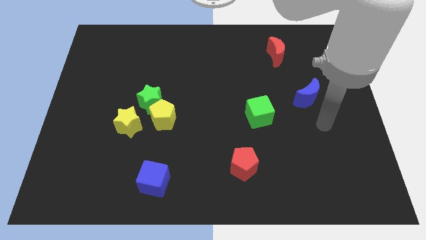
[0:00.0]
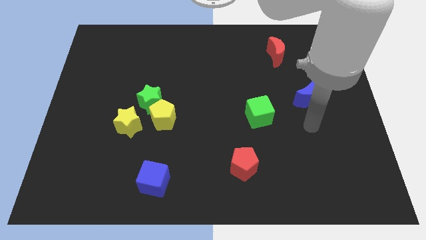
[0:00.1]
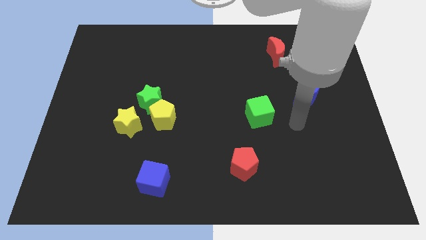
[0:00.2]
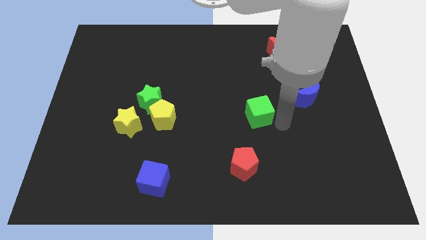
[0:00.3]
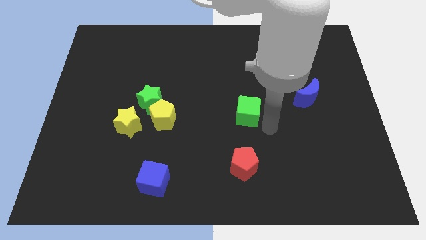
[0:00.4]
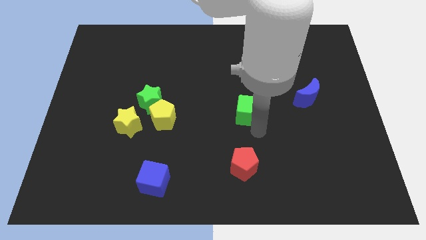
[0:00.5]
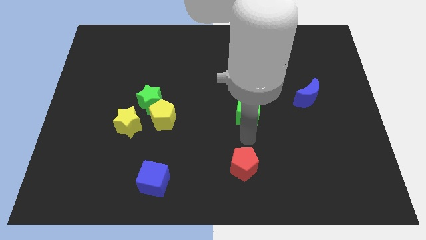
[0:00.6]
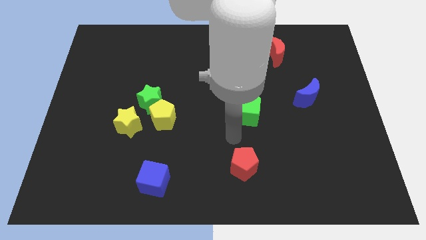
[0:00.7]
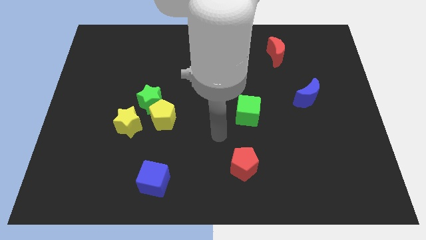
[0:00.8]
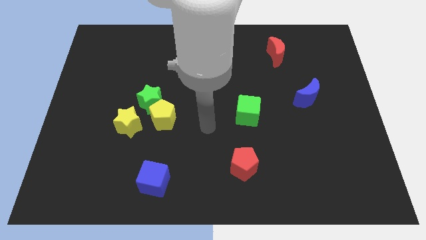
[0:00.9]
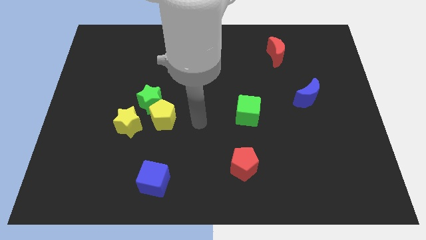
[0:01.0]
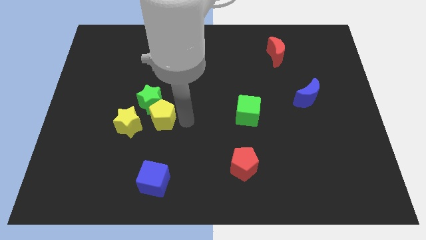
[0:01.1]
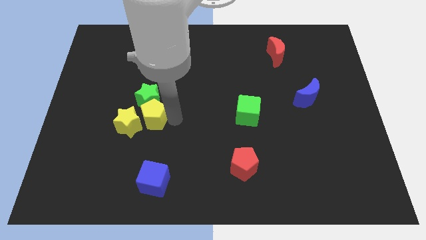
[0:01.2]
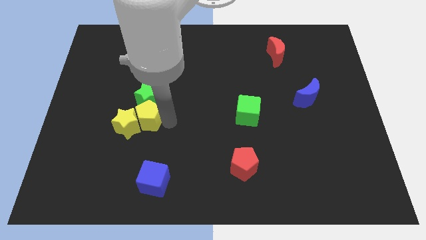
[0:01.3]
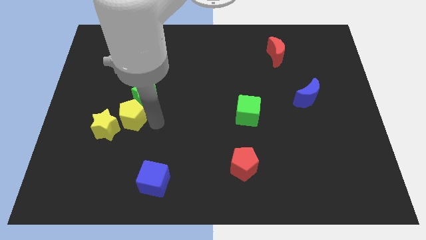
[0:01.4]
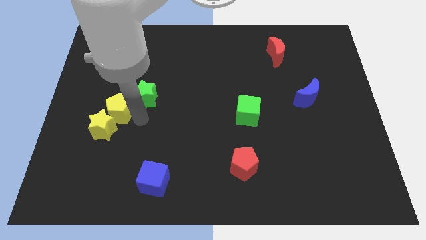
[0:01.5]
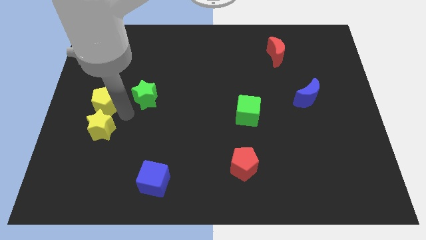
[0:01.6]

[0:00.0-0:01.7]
separate the green star from the yellow pentagon and yellow star

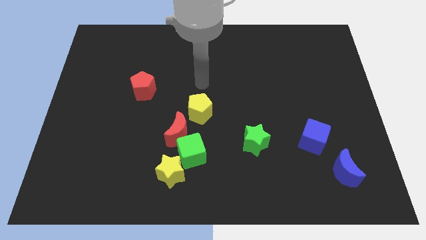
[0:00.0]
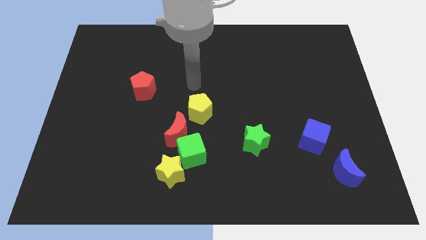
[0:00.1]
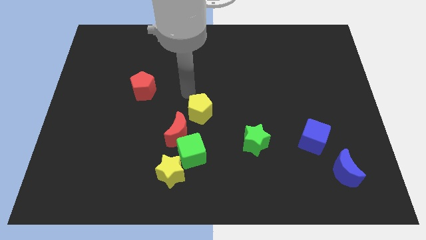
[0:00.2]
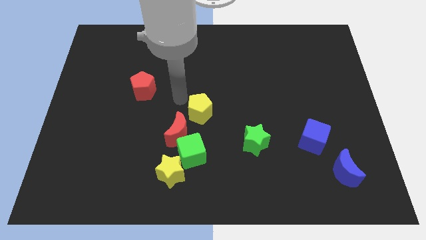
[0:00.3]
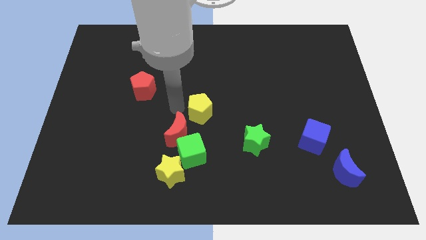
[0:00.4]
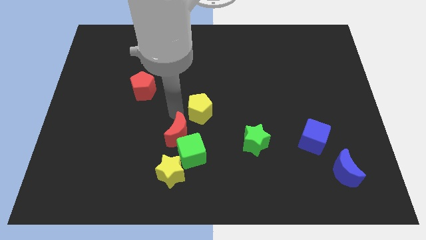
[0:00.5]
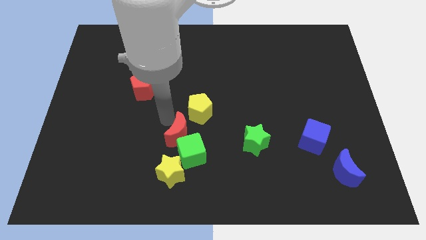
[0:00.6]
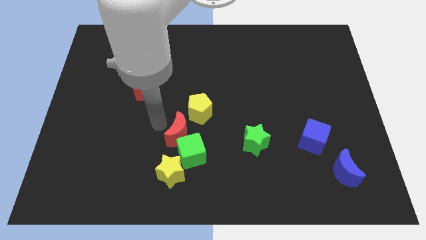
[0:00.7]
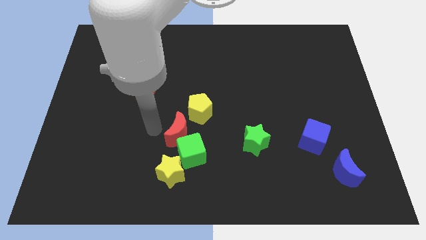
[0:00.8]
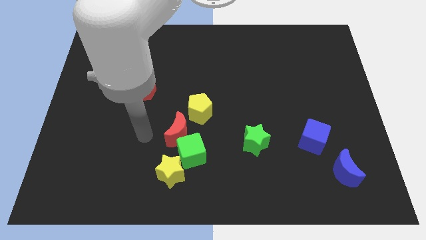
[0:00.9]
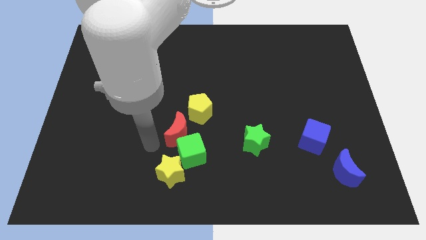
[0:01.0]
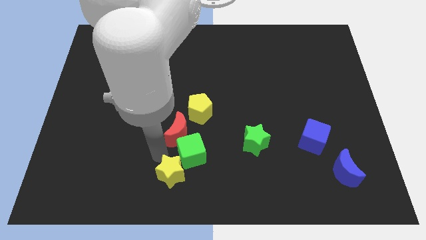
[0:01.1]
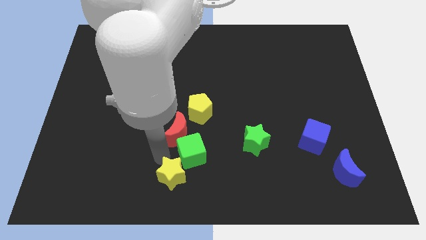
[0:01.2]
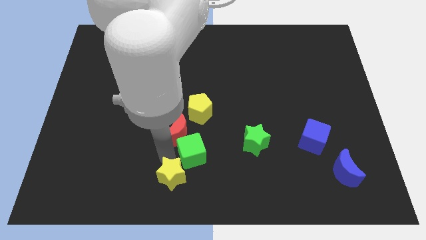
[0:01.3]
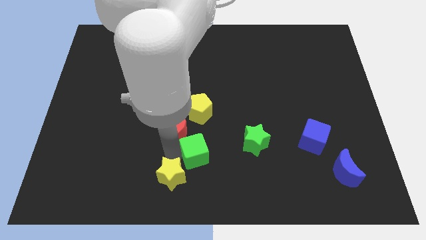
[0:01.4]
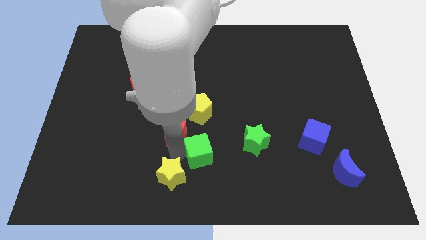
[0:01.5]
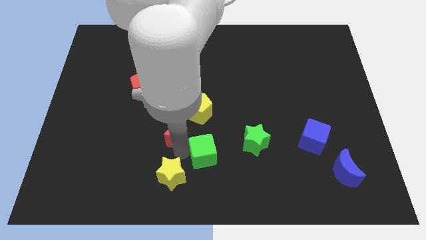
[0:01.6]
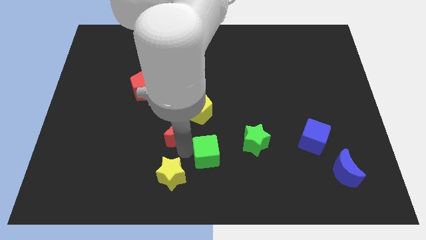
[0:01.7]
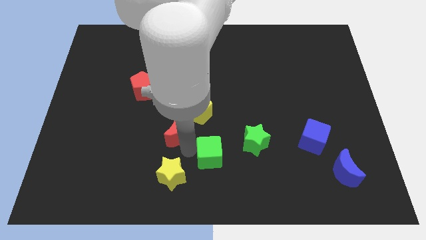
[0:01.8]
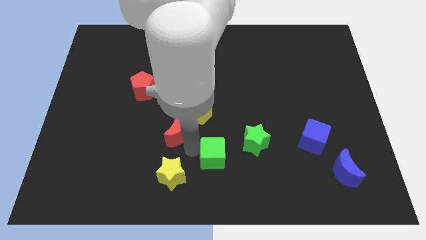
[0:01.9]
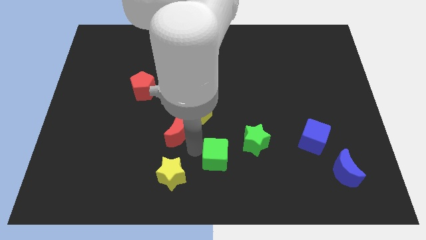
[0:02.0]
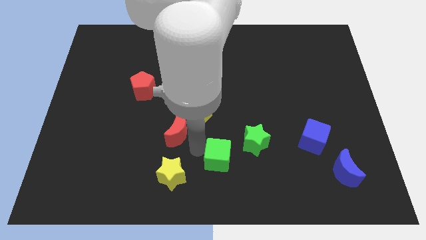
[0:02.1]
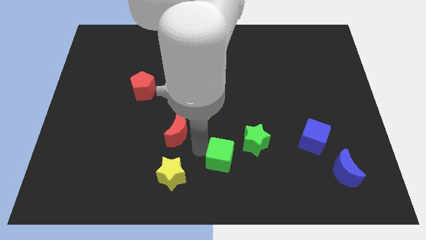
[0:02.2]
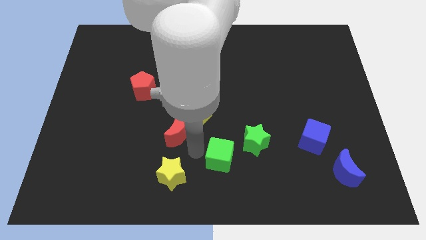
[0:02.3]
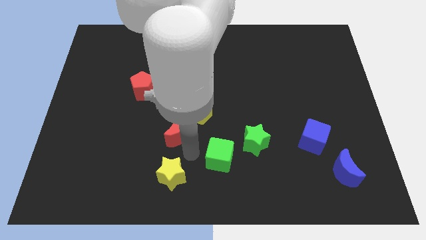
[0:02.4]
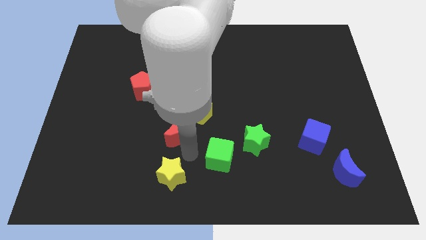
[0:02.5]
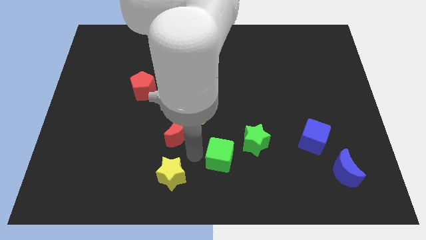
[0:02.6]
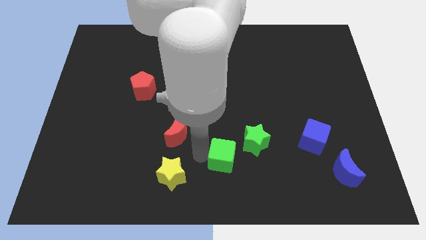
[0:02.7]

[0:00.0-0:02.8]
separate the green cube from the yellow star and red moon

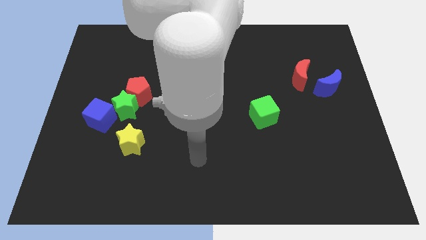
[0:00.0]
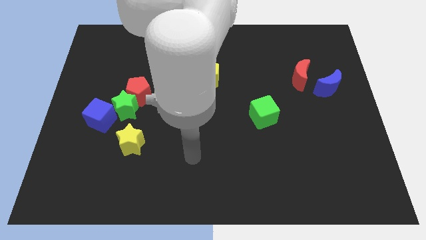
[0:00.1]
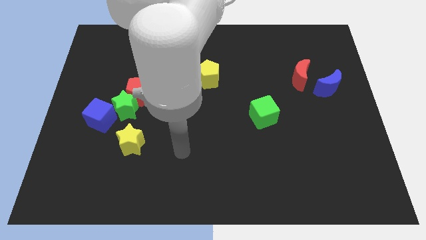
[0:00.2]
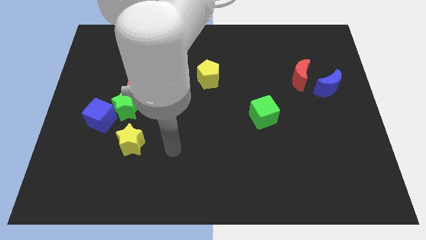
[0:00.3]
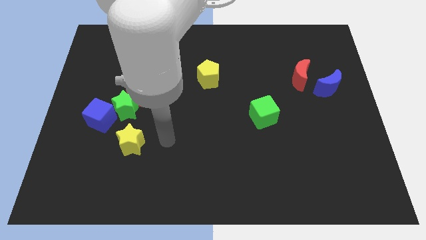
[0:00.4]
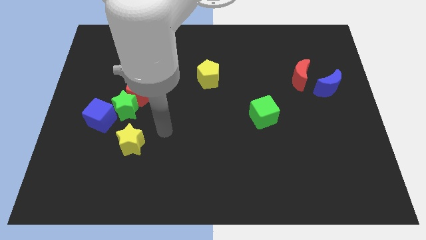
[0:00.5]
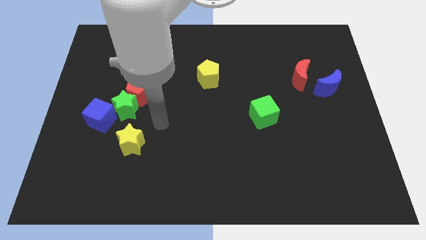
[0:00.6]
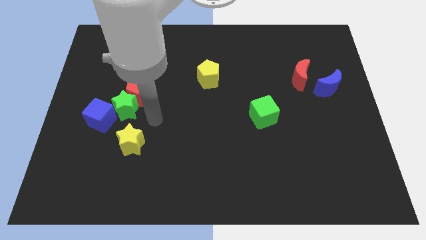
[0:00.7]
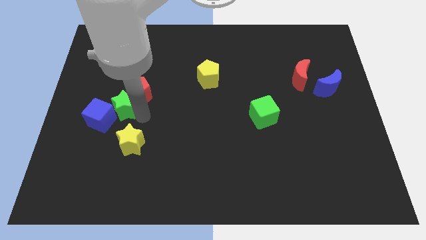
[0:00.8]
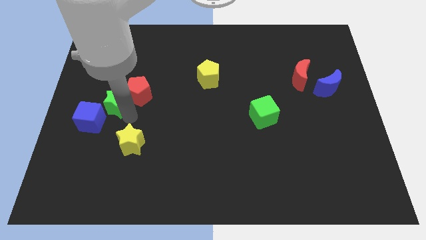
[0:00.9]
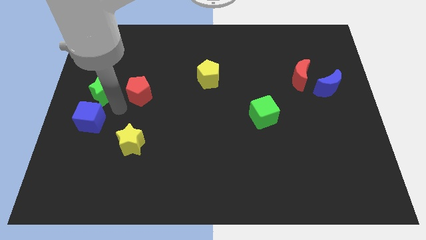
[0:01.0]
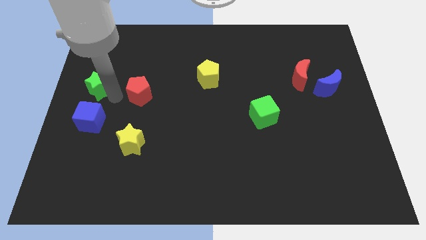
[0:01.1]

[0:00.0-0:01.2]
move the red pentagon away from the green star

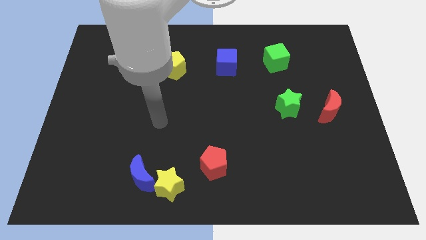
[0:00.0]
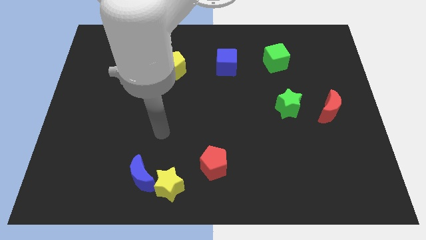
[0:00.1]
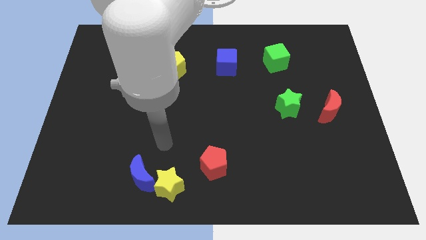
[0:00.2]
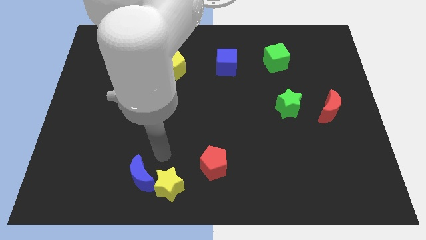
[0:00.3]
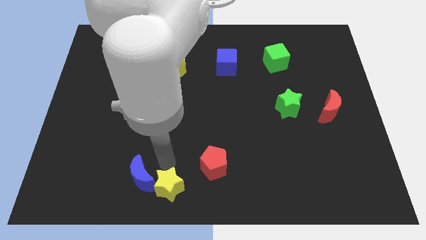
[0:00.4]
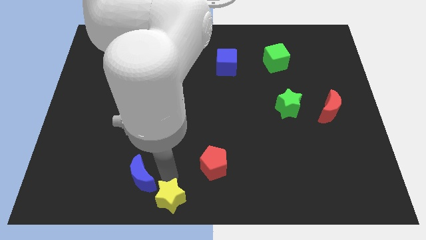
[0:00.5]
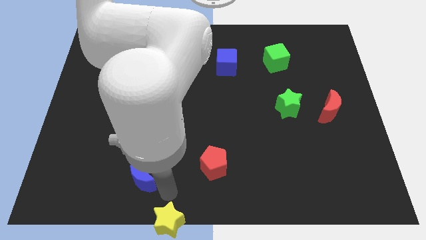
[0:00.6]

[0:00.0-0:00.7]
pull the blue moon apart from the yellow star

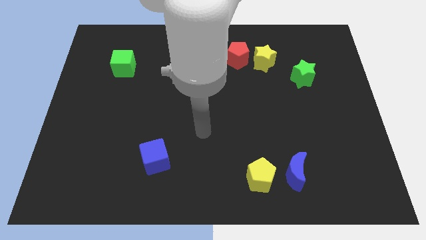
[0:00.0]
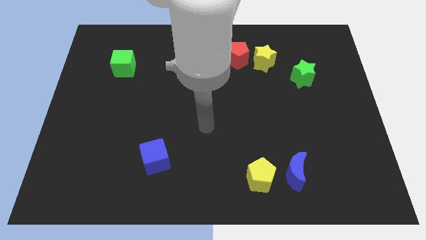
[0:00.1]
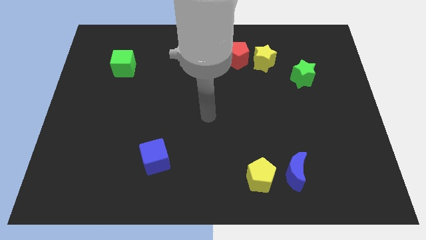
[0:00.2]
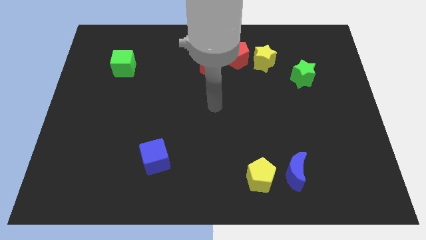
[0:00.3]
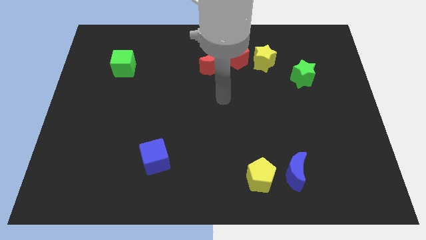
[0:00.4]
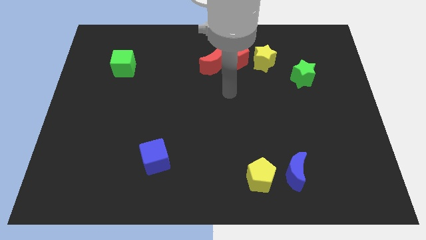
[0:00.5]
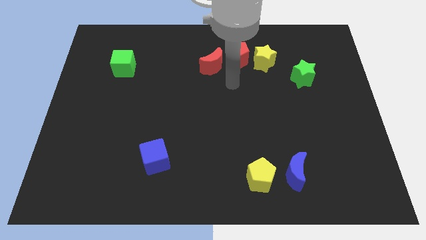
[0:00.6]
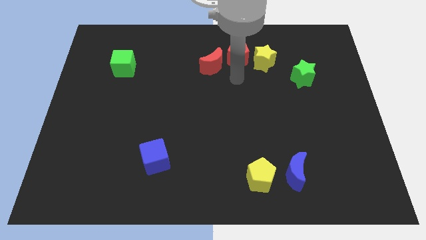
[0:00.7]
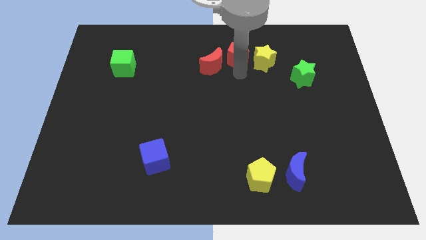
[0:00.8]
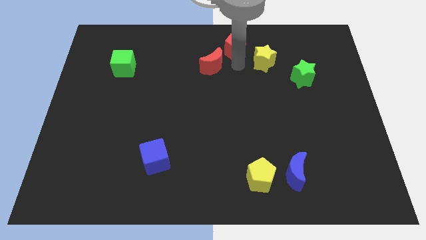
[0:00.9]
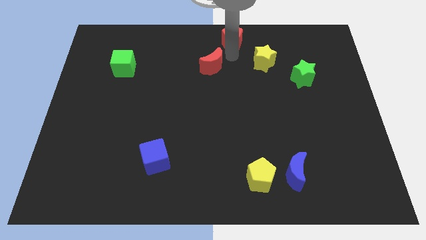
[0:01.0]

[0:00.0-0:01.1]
pull the red moon apart from the red pentagon

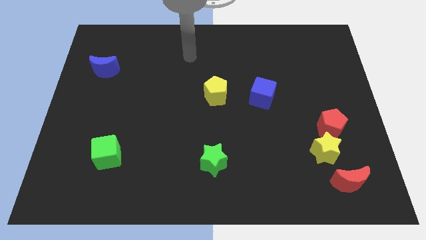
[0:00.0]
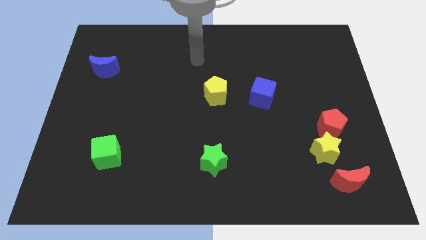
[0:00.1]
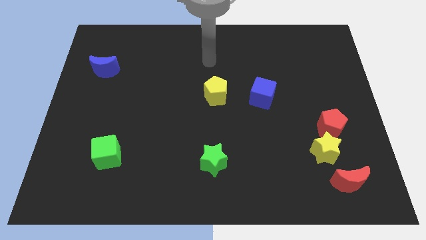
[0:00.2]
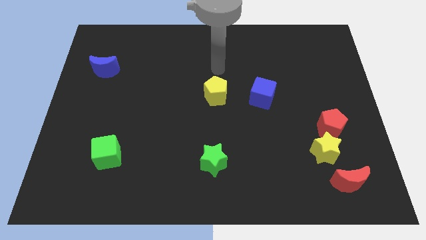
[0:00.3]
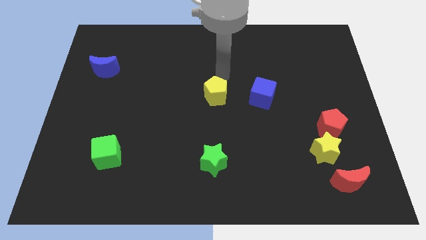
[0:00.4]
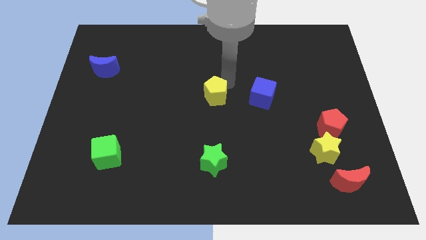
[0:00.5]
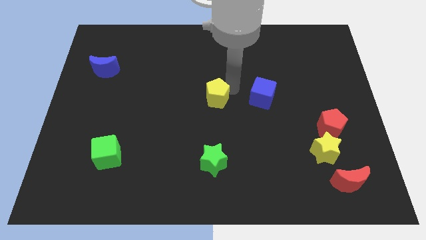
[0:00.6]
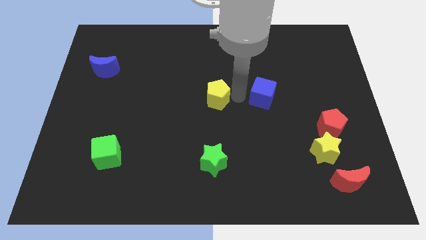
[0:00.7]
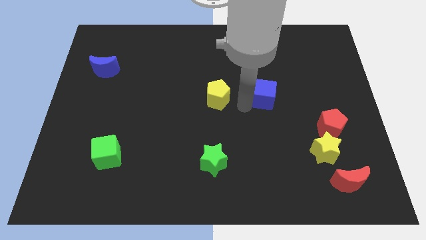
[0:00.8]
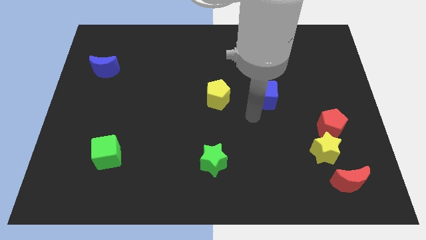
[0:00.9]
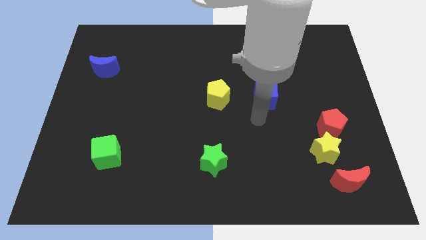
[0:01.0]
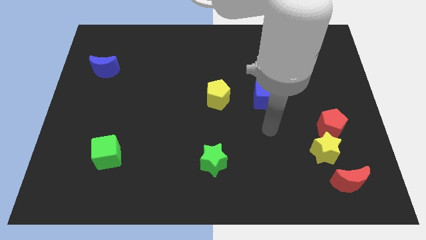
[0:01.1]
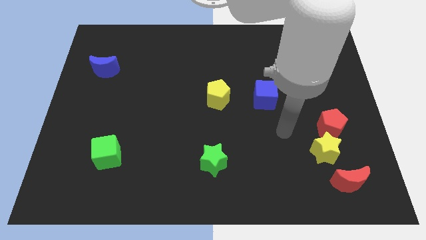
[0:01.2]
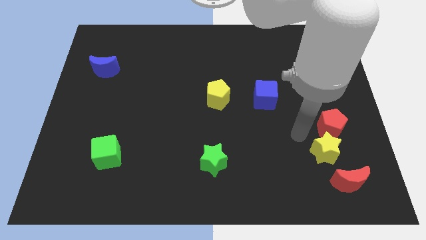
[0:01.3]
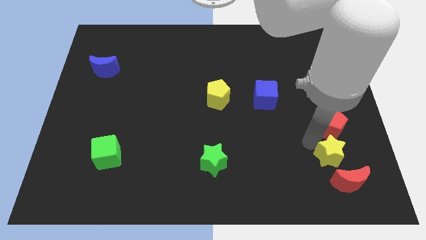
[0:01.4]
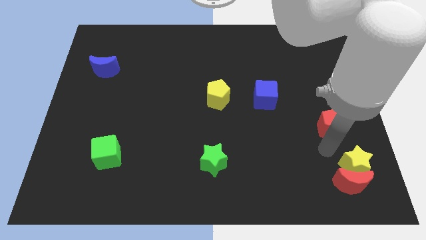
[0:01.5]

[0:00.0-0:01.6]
move the red pentagon away from the yellow star

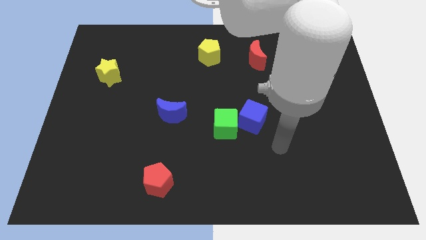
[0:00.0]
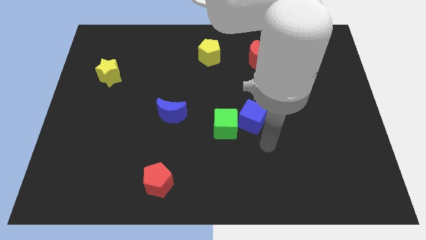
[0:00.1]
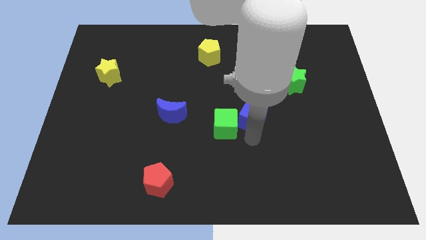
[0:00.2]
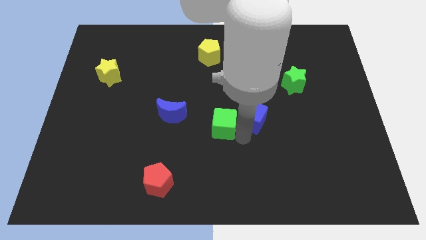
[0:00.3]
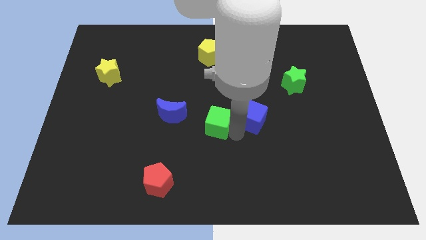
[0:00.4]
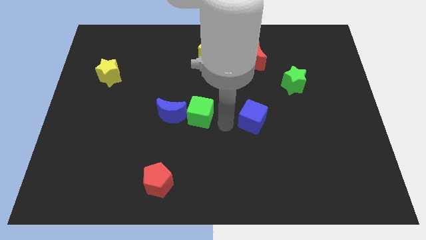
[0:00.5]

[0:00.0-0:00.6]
pull the blue cube apart from the green cube
